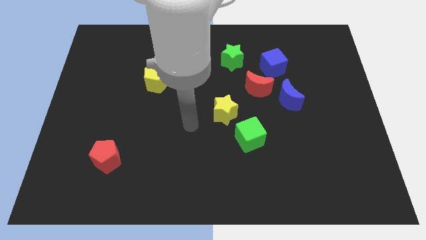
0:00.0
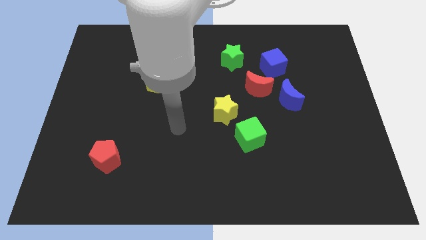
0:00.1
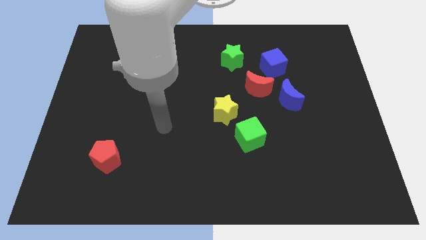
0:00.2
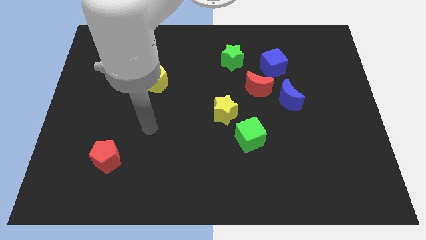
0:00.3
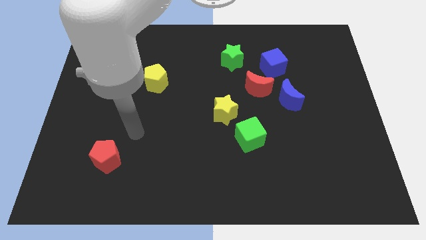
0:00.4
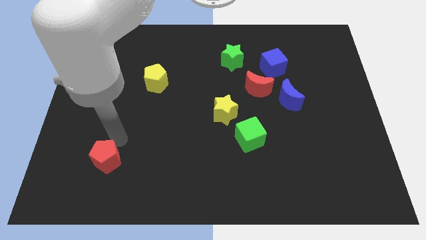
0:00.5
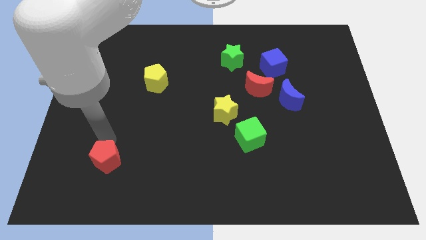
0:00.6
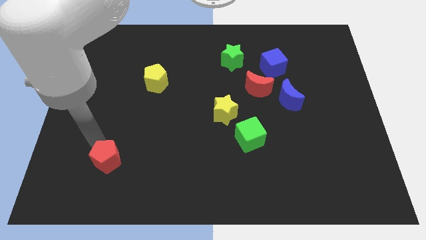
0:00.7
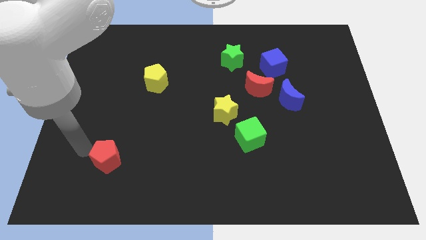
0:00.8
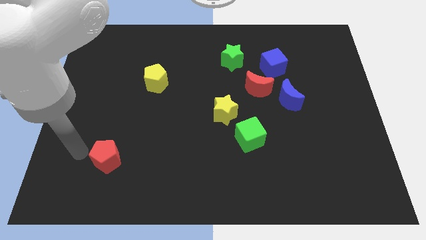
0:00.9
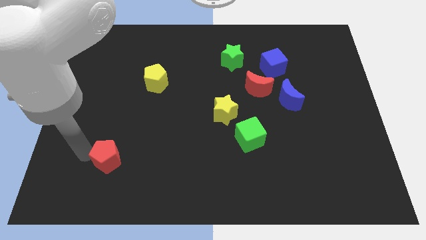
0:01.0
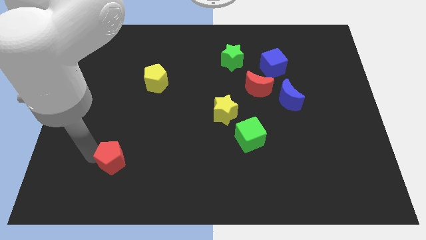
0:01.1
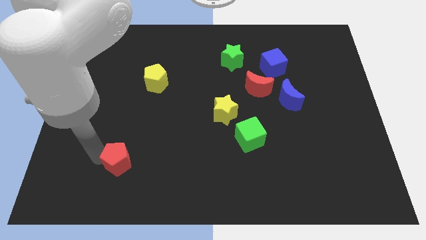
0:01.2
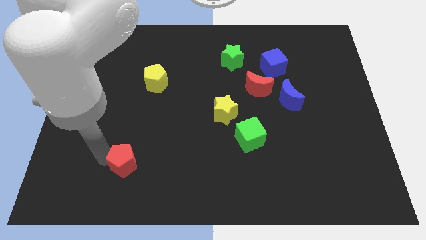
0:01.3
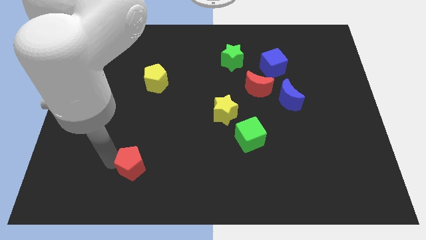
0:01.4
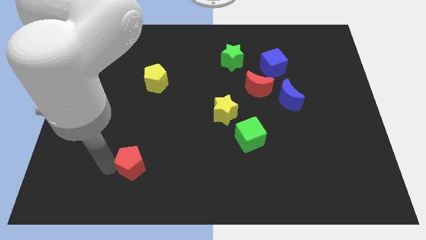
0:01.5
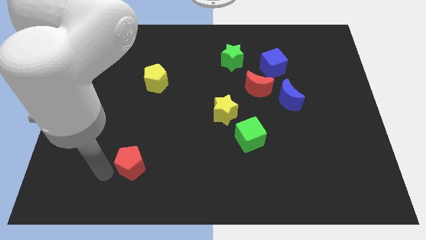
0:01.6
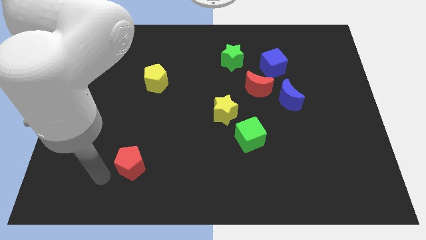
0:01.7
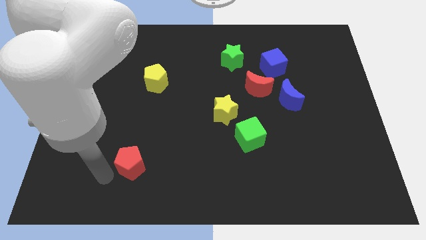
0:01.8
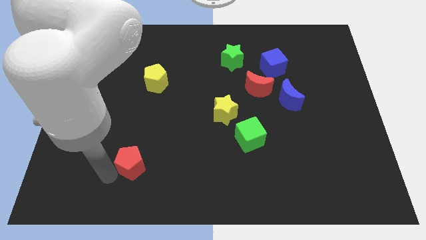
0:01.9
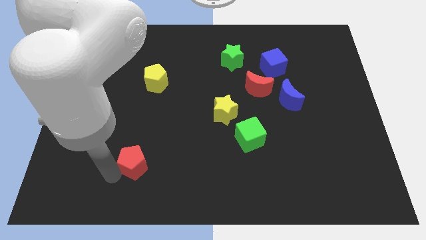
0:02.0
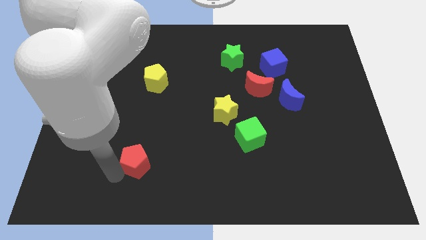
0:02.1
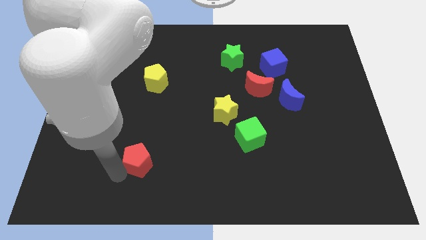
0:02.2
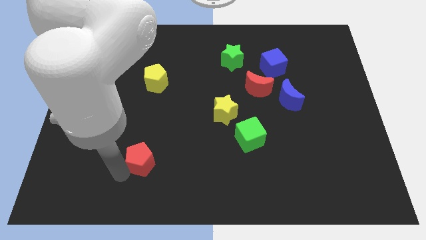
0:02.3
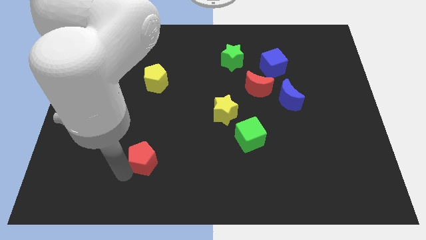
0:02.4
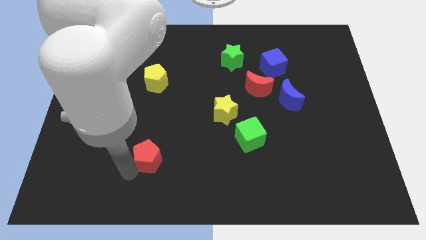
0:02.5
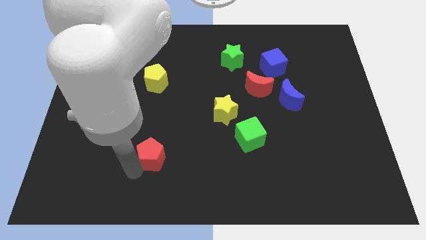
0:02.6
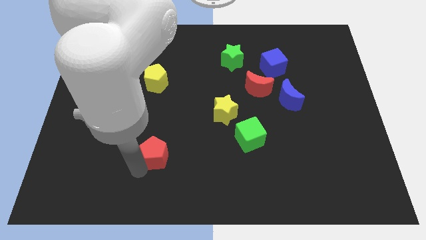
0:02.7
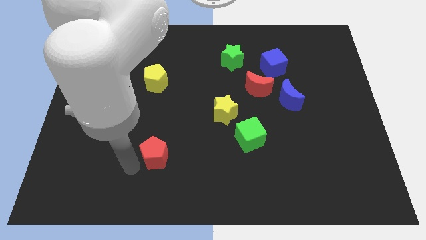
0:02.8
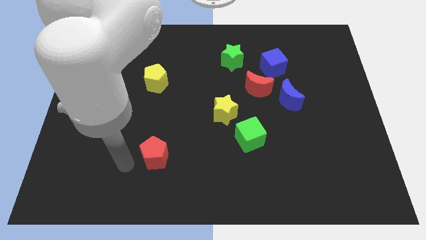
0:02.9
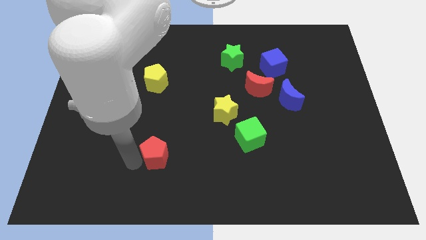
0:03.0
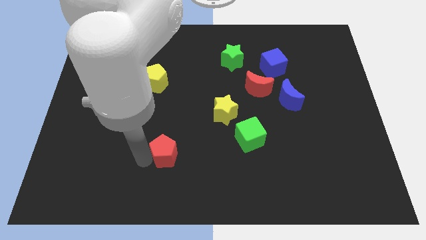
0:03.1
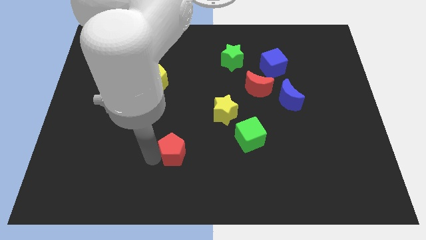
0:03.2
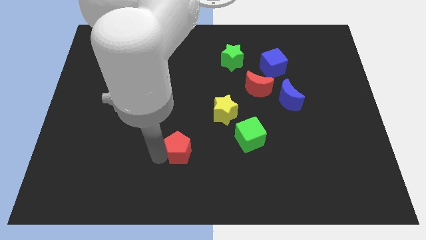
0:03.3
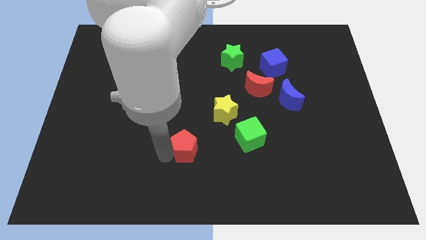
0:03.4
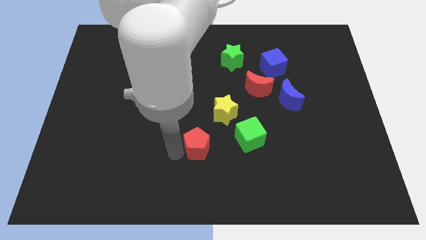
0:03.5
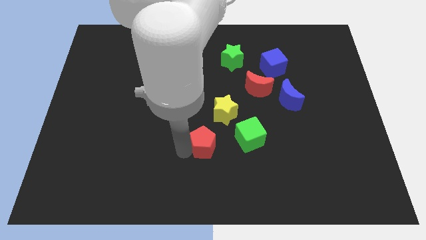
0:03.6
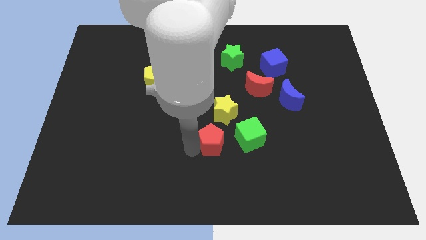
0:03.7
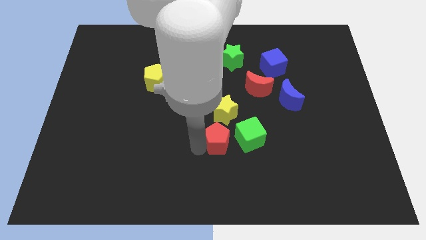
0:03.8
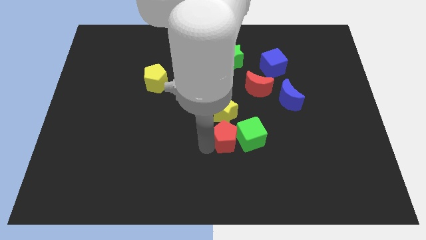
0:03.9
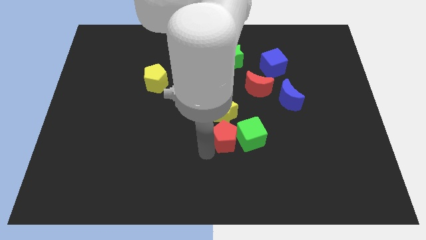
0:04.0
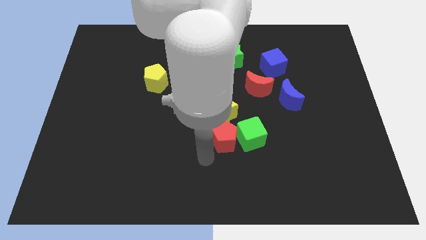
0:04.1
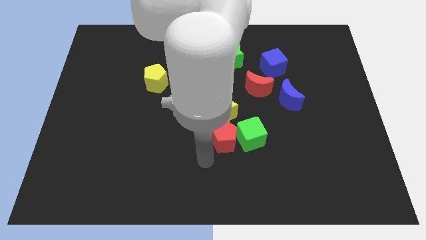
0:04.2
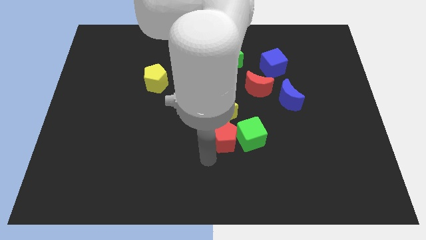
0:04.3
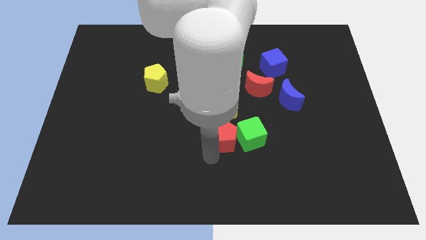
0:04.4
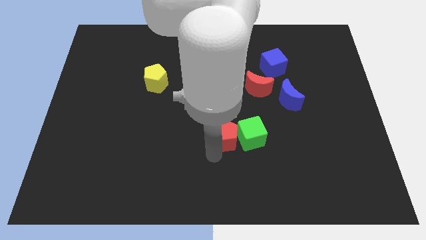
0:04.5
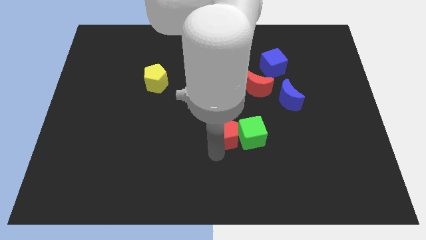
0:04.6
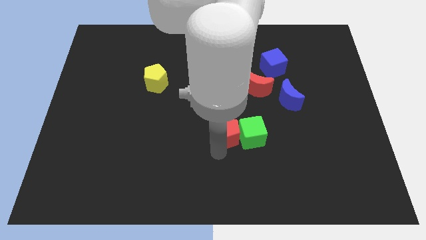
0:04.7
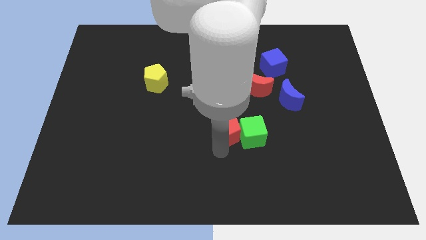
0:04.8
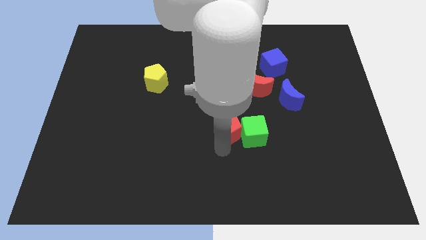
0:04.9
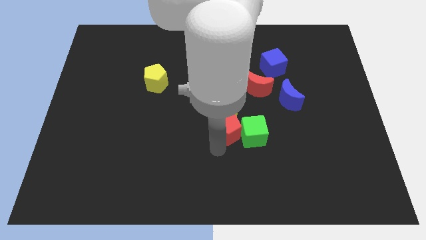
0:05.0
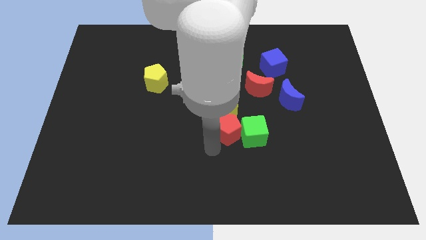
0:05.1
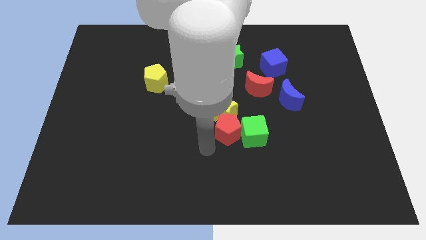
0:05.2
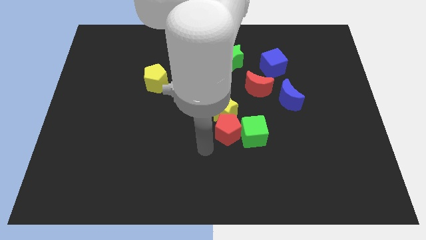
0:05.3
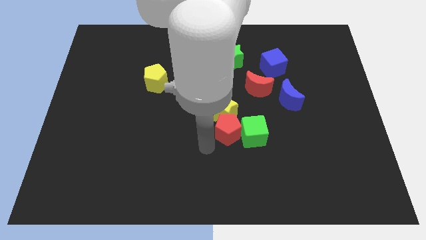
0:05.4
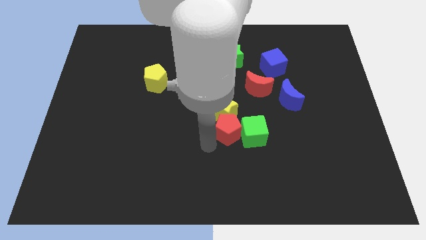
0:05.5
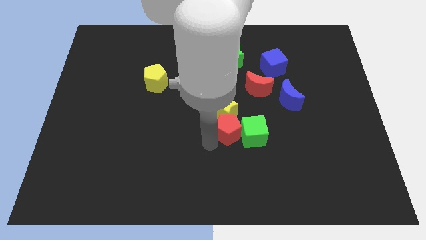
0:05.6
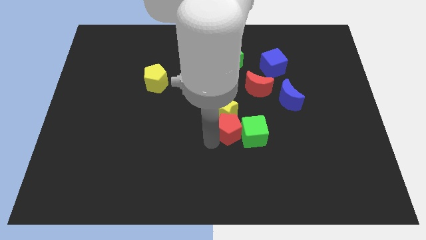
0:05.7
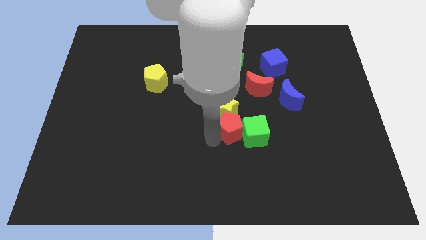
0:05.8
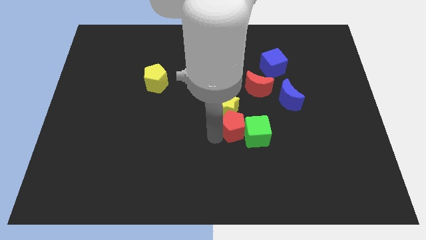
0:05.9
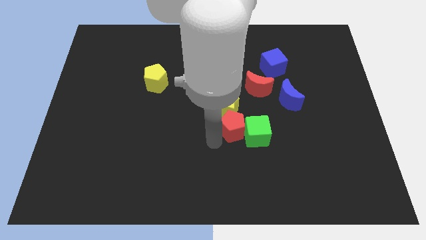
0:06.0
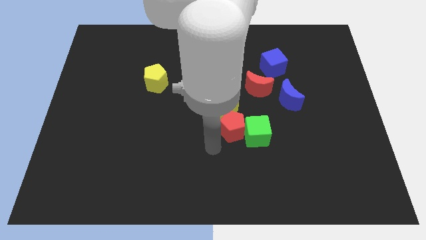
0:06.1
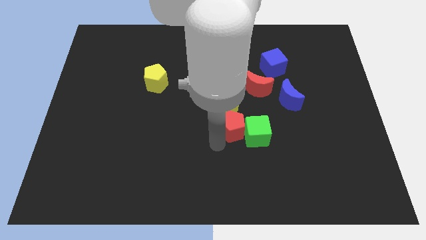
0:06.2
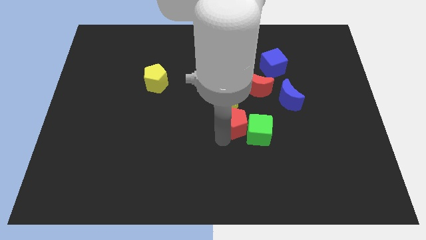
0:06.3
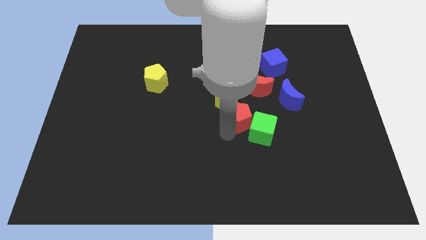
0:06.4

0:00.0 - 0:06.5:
move the red pentagon to the bottom of the red moon
